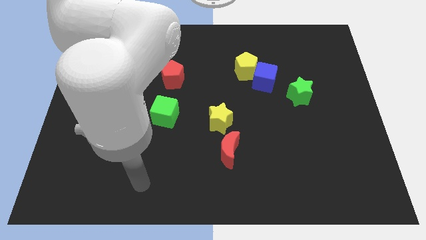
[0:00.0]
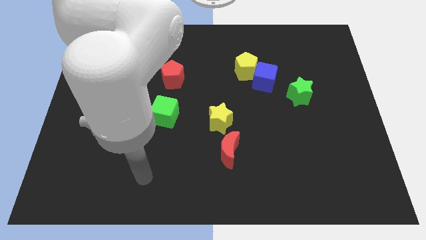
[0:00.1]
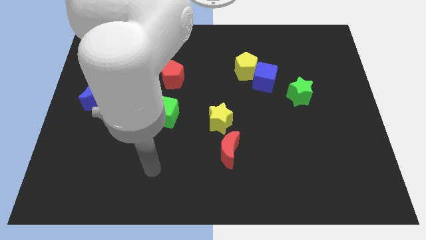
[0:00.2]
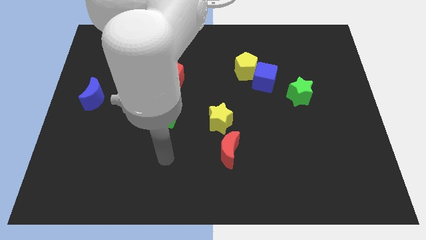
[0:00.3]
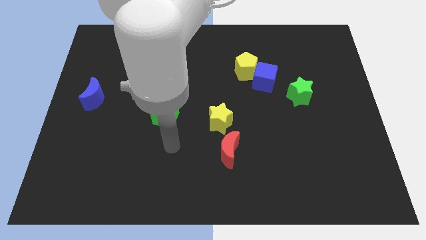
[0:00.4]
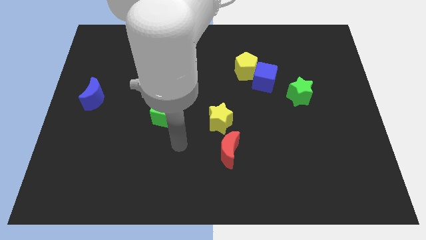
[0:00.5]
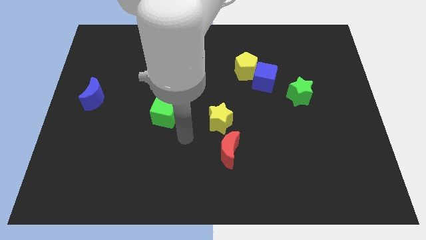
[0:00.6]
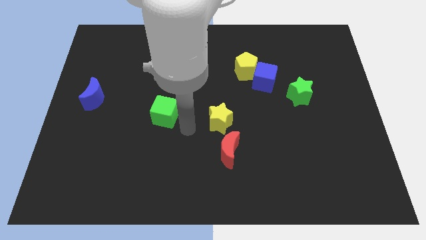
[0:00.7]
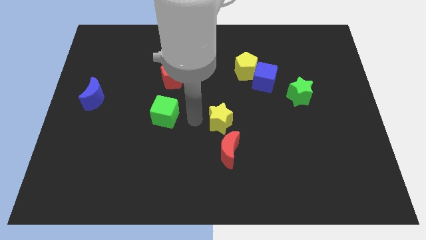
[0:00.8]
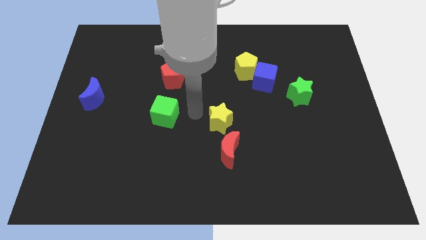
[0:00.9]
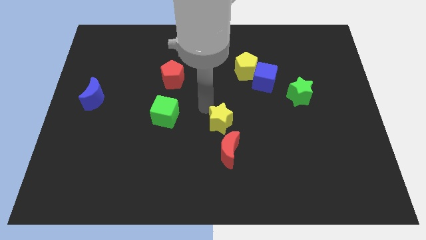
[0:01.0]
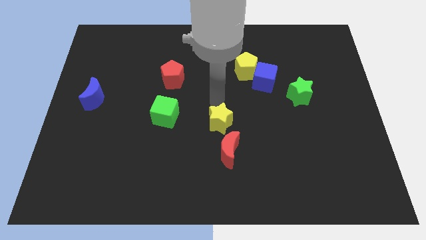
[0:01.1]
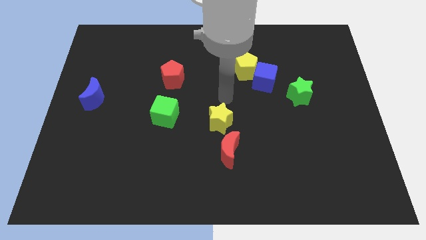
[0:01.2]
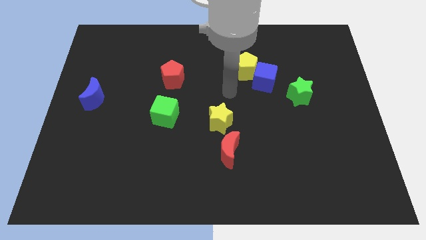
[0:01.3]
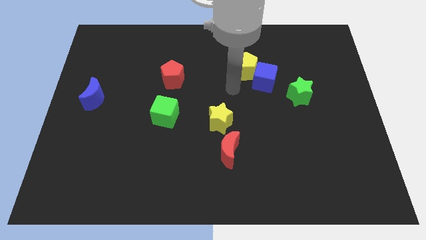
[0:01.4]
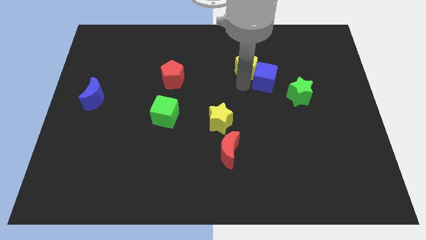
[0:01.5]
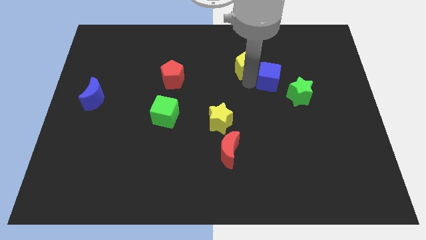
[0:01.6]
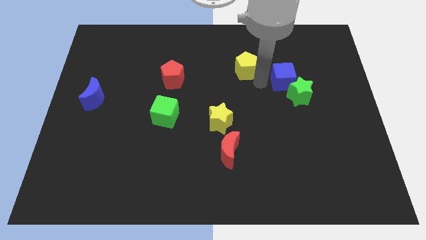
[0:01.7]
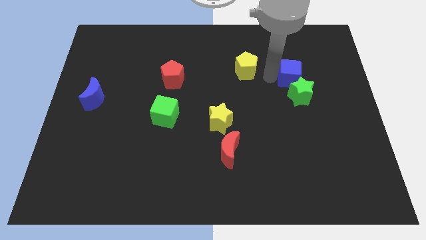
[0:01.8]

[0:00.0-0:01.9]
separate the yellow pentagon from the blue cube

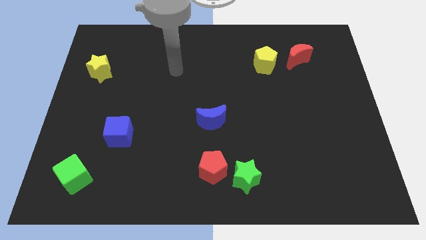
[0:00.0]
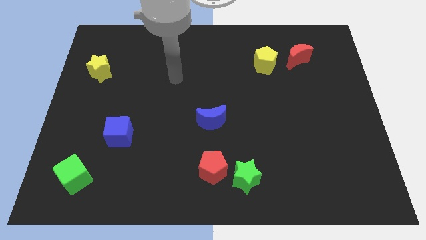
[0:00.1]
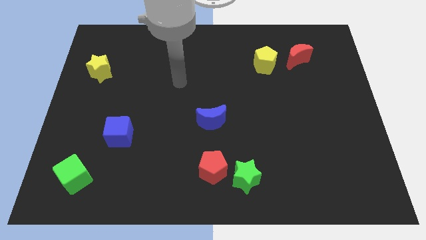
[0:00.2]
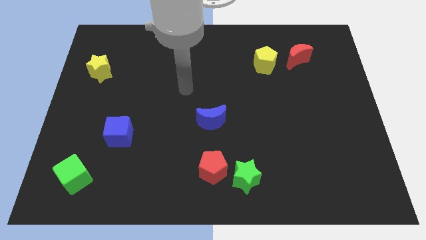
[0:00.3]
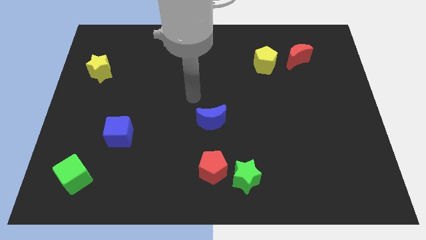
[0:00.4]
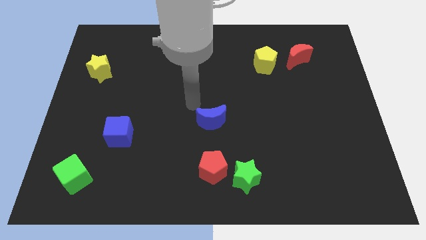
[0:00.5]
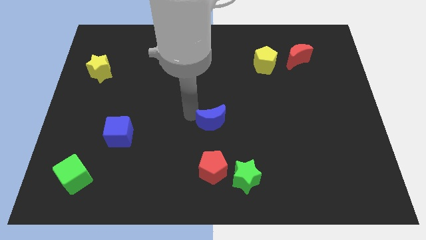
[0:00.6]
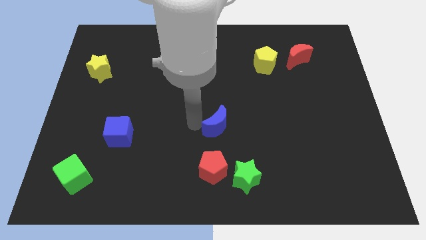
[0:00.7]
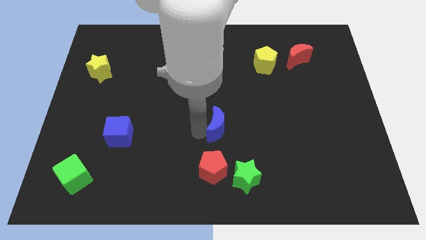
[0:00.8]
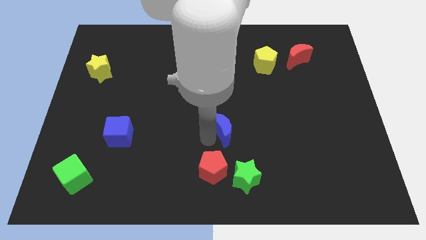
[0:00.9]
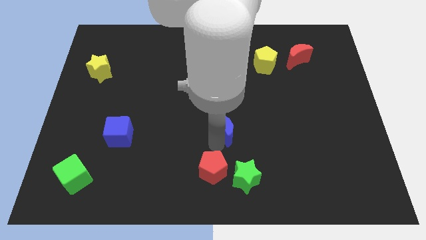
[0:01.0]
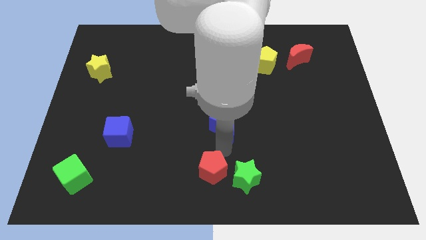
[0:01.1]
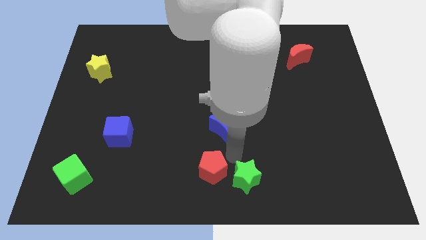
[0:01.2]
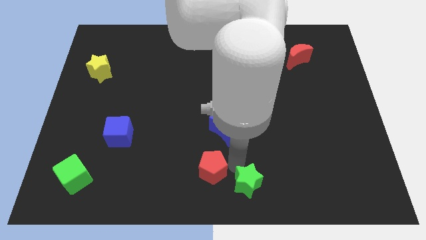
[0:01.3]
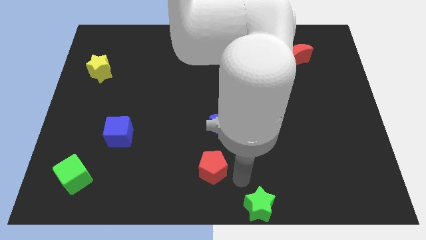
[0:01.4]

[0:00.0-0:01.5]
separate the red pentagon from the green star

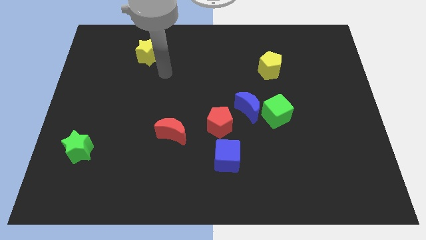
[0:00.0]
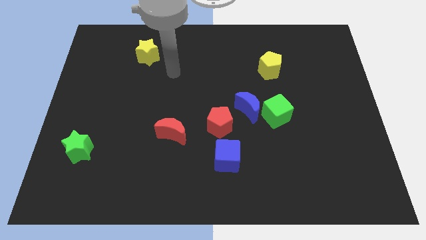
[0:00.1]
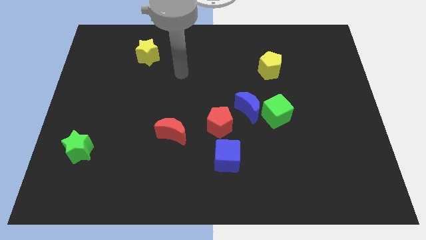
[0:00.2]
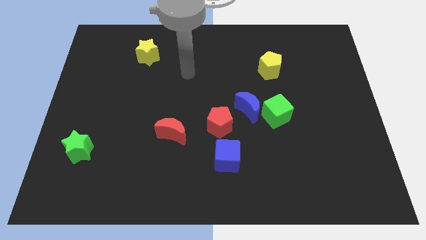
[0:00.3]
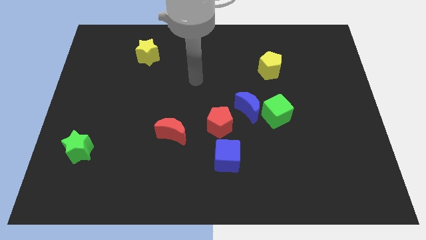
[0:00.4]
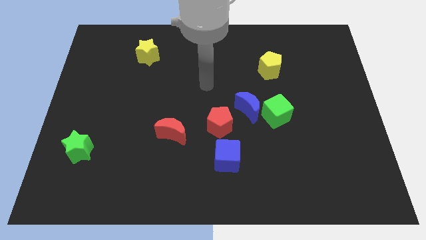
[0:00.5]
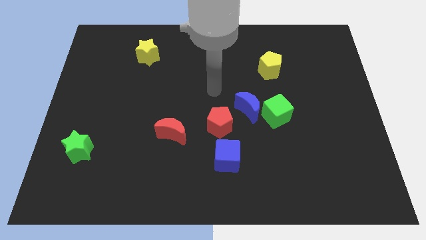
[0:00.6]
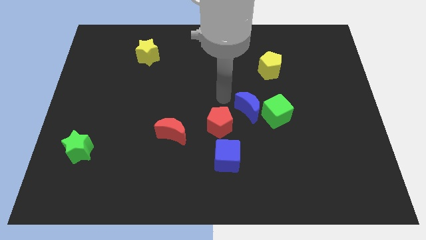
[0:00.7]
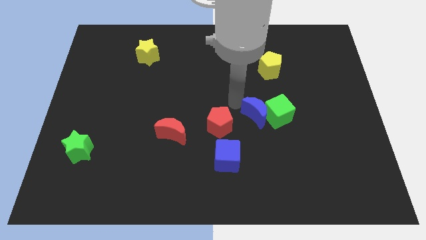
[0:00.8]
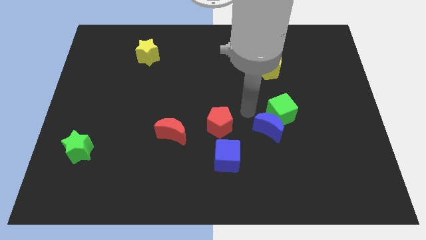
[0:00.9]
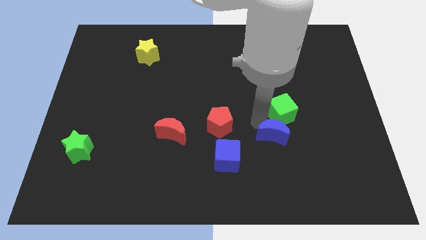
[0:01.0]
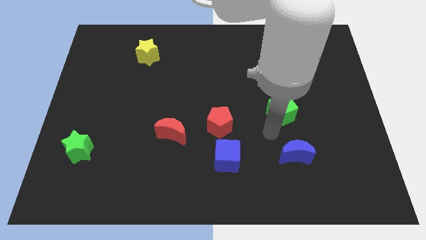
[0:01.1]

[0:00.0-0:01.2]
move the green cube away from the blue moon

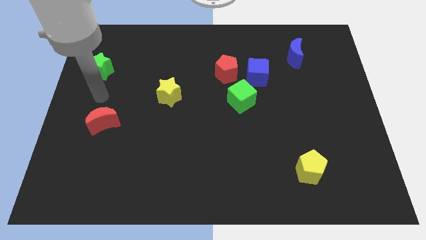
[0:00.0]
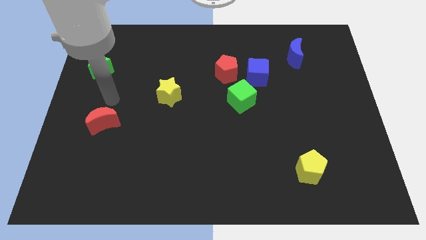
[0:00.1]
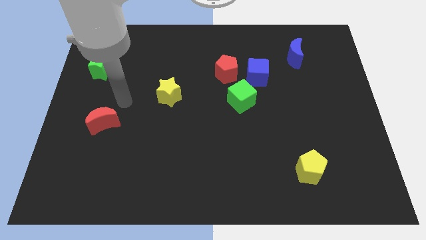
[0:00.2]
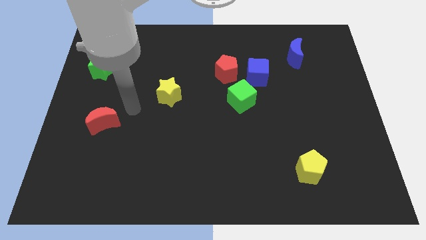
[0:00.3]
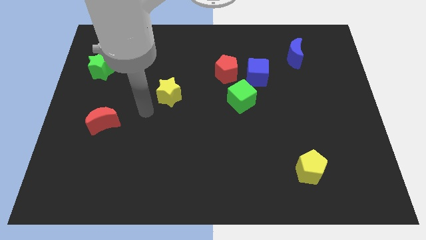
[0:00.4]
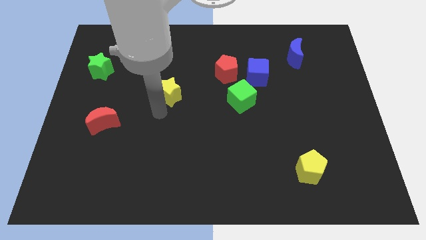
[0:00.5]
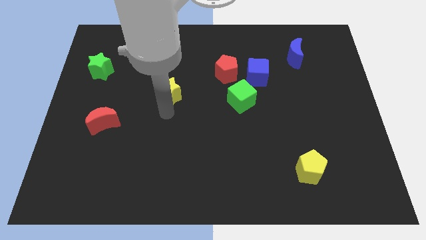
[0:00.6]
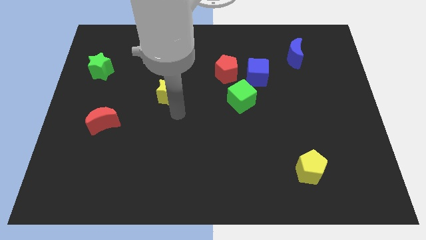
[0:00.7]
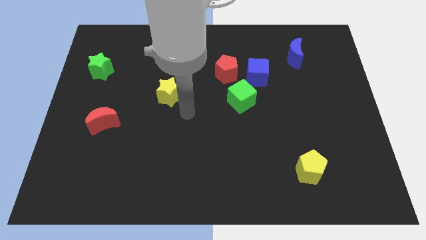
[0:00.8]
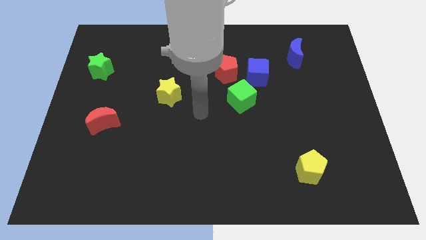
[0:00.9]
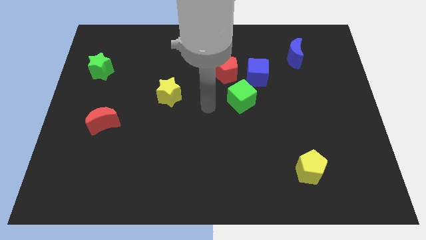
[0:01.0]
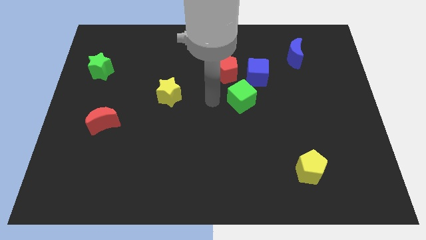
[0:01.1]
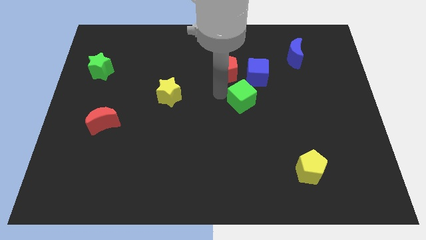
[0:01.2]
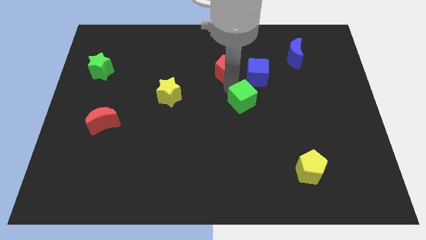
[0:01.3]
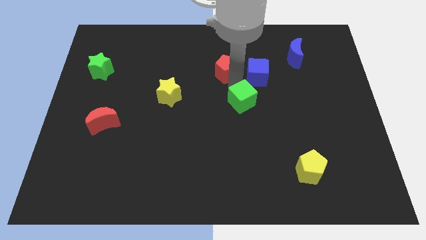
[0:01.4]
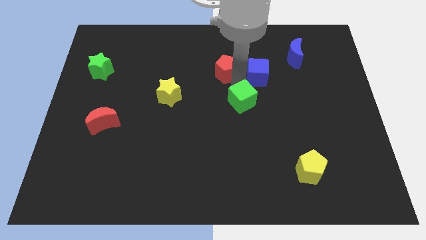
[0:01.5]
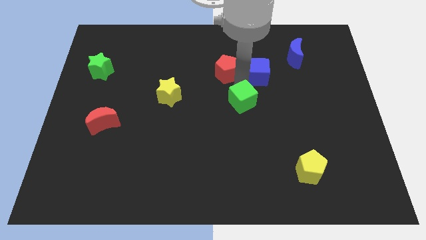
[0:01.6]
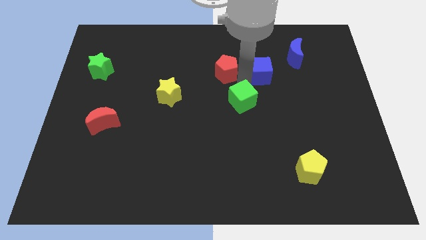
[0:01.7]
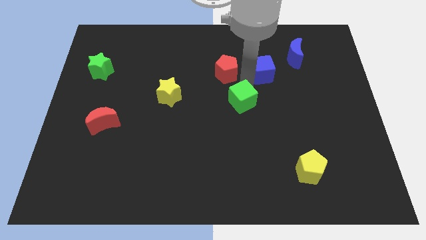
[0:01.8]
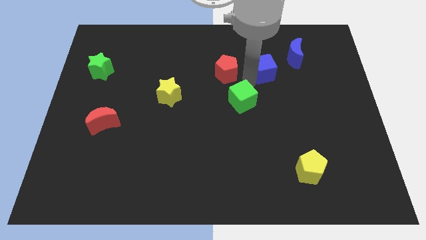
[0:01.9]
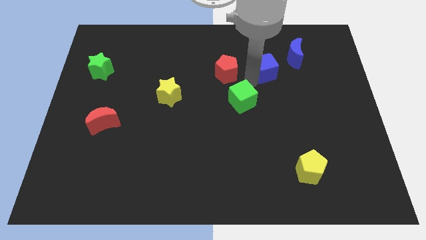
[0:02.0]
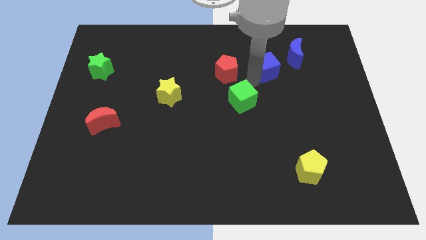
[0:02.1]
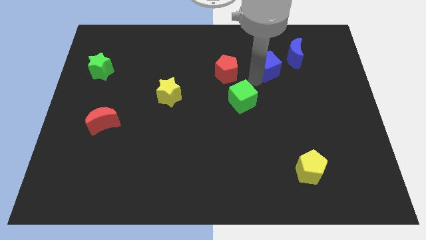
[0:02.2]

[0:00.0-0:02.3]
separate the blue cube from the red pentagon and green cube

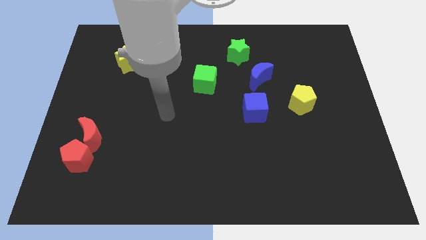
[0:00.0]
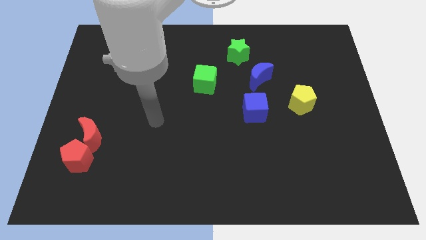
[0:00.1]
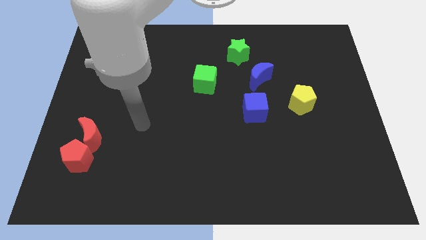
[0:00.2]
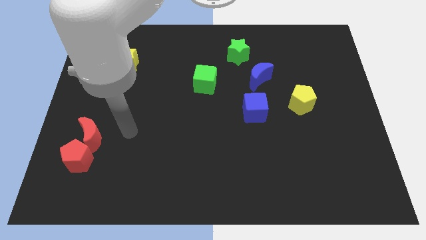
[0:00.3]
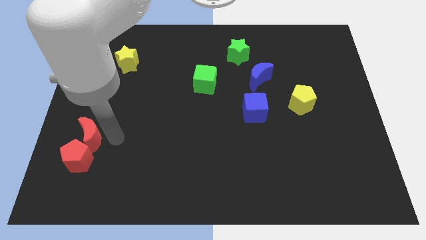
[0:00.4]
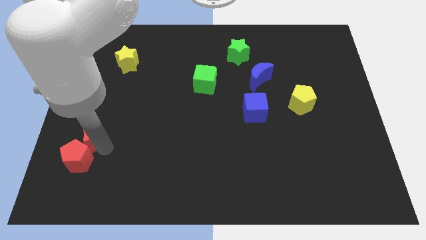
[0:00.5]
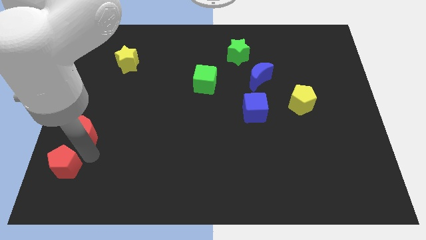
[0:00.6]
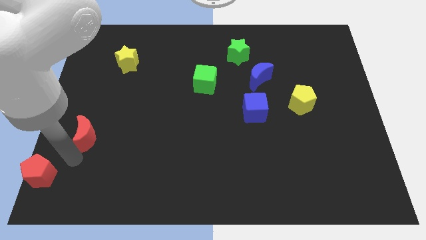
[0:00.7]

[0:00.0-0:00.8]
pull the red moon apart from the red pentagon

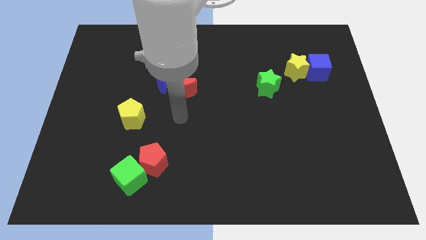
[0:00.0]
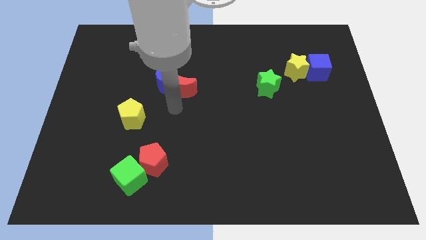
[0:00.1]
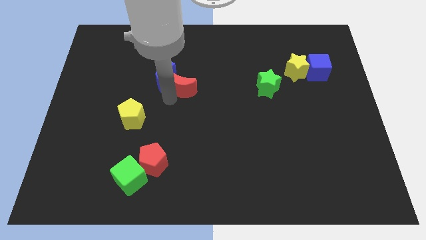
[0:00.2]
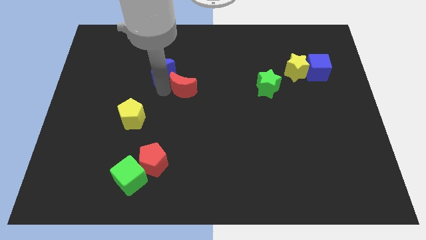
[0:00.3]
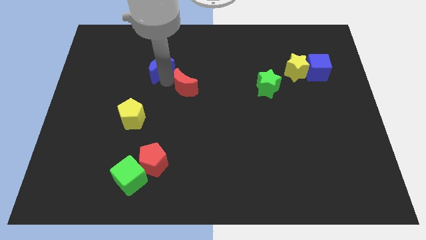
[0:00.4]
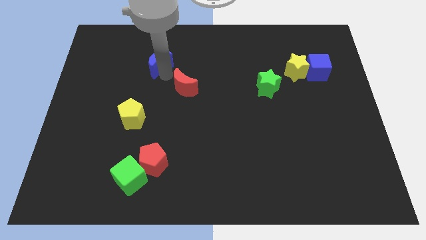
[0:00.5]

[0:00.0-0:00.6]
separate the red moon from the blue moon

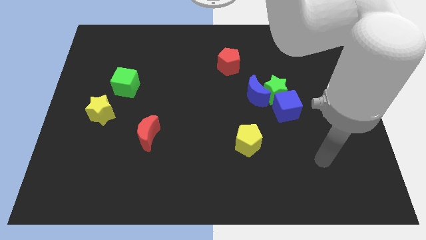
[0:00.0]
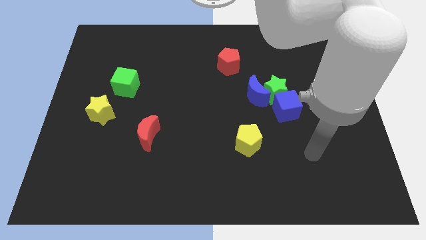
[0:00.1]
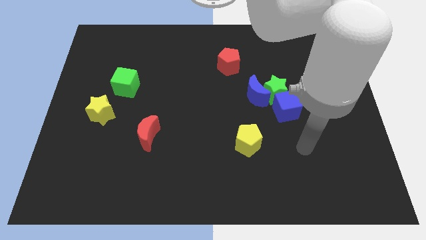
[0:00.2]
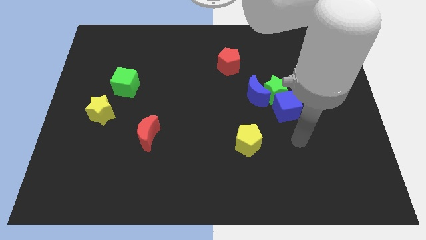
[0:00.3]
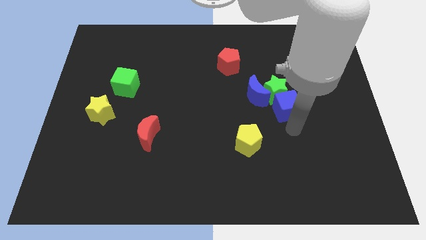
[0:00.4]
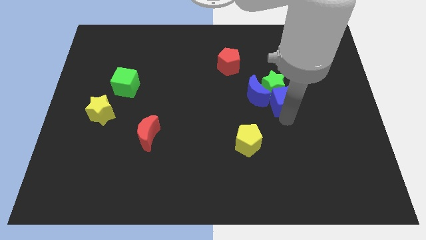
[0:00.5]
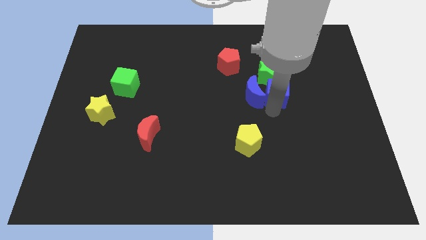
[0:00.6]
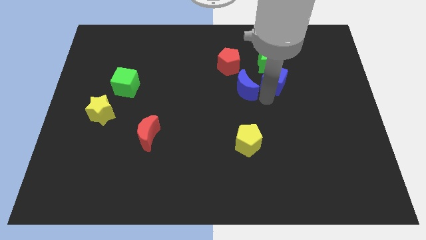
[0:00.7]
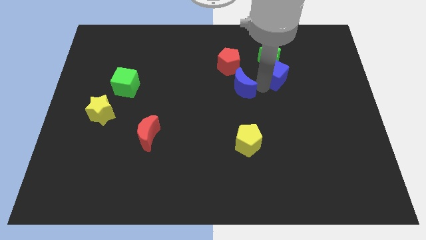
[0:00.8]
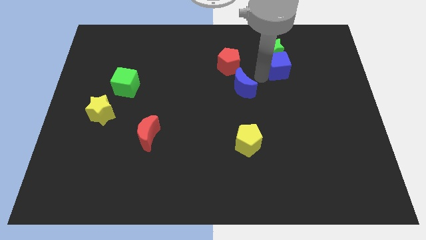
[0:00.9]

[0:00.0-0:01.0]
pull the green star apart from the blue moon and blue cube

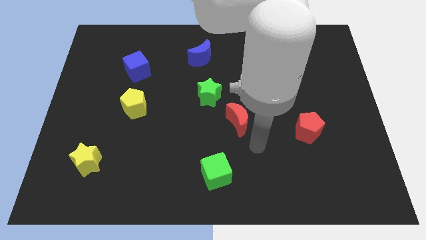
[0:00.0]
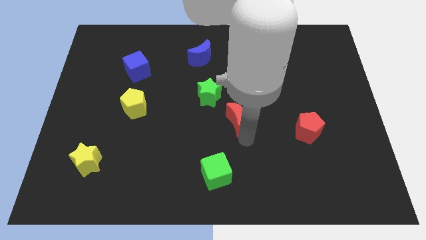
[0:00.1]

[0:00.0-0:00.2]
move the red moon away from the green star
